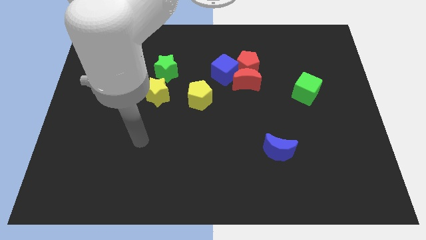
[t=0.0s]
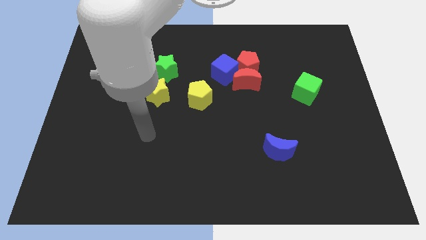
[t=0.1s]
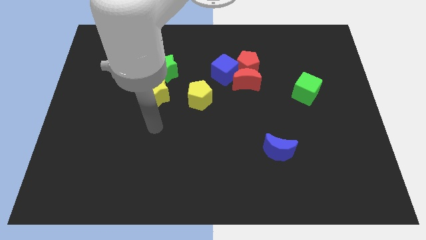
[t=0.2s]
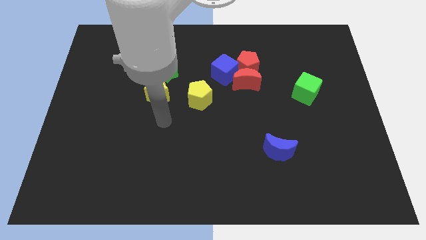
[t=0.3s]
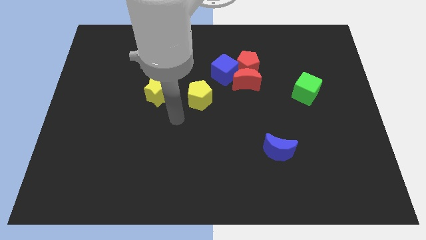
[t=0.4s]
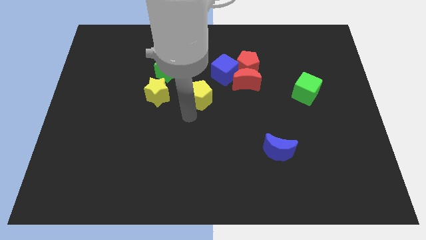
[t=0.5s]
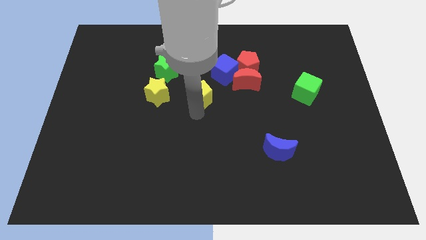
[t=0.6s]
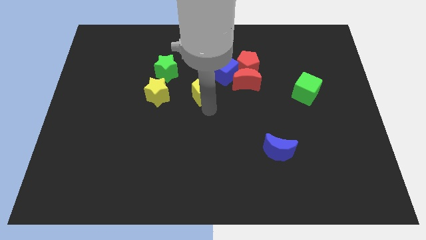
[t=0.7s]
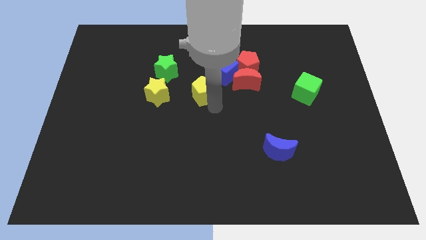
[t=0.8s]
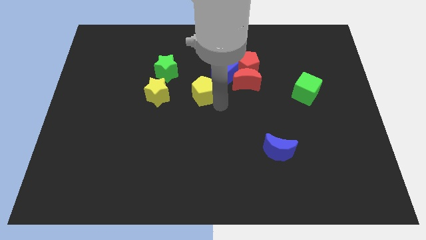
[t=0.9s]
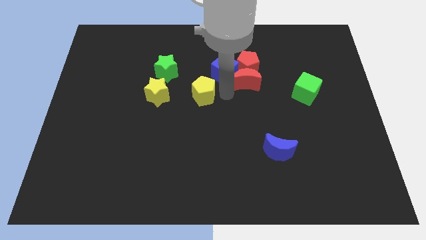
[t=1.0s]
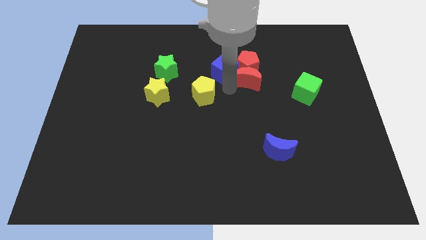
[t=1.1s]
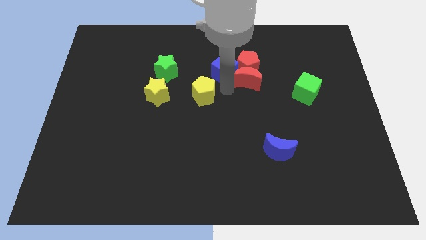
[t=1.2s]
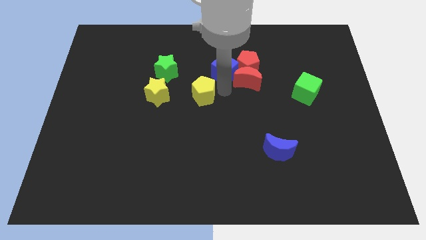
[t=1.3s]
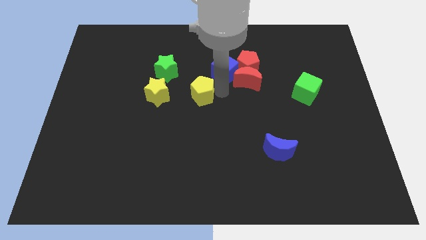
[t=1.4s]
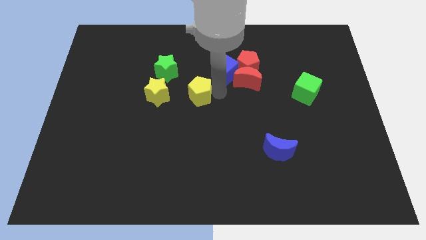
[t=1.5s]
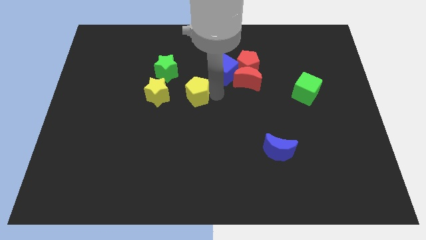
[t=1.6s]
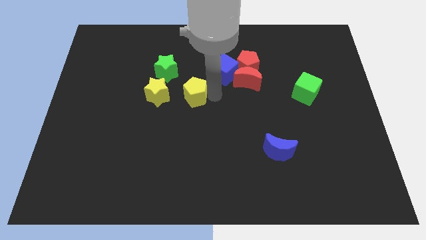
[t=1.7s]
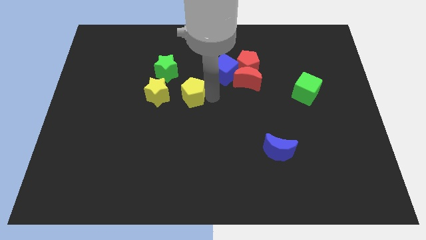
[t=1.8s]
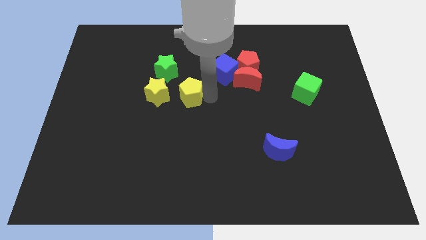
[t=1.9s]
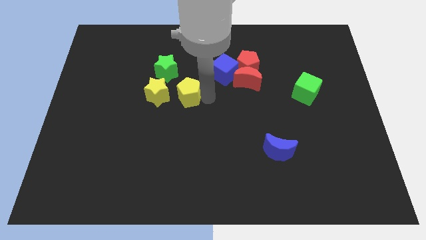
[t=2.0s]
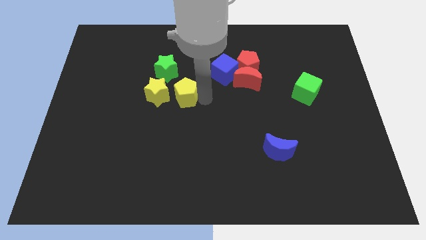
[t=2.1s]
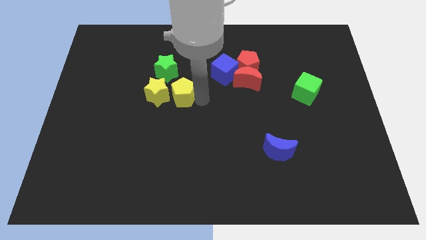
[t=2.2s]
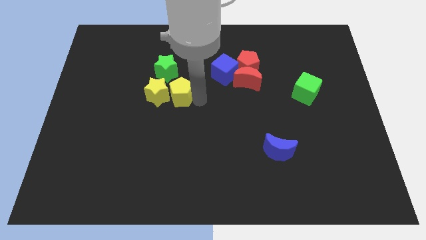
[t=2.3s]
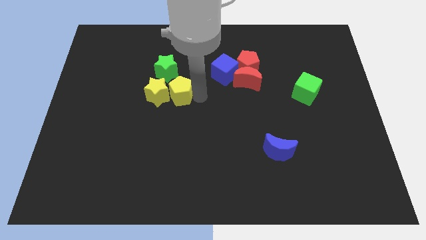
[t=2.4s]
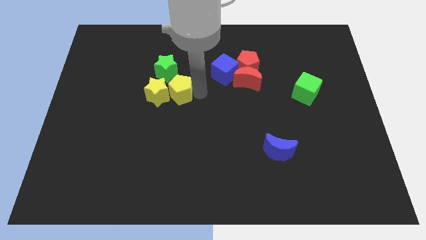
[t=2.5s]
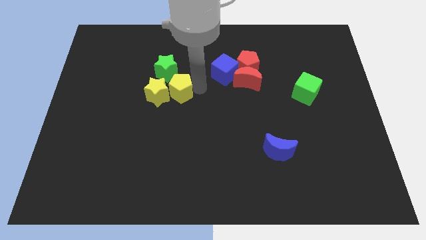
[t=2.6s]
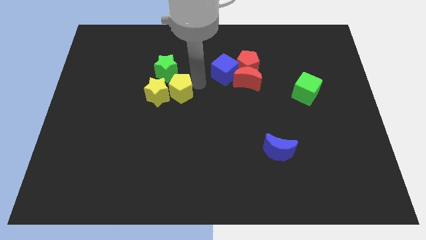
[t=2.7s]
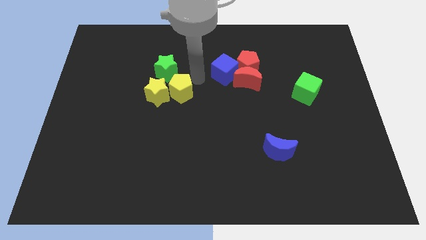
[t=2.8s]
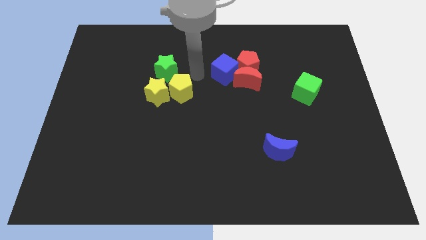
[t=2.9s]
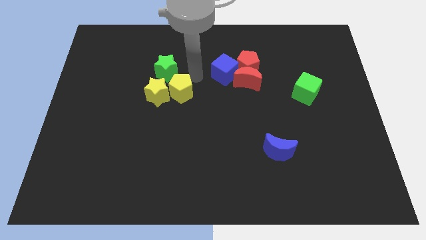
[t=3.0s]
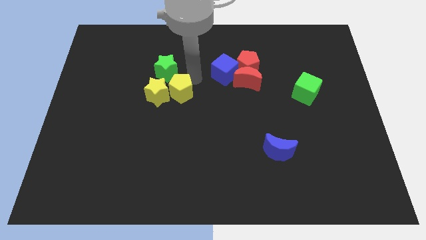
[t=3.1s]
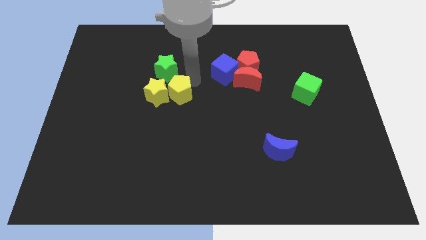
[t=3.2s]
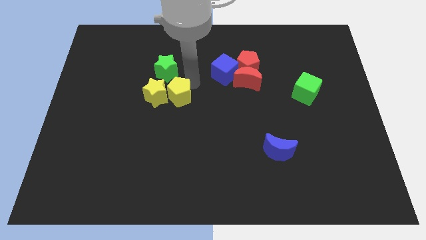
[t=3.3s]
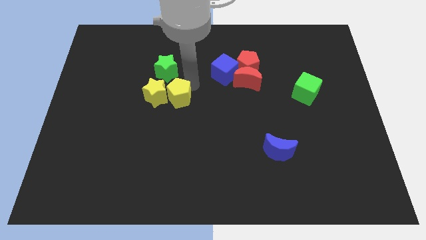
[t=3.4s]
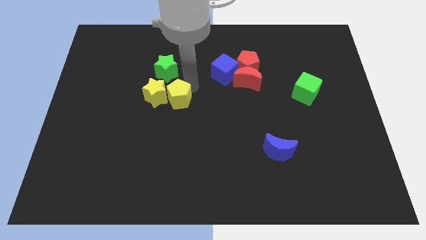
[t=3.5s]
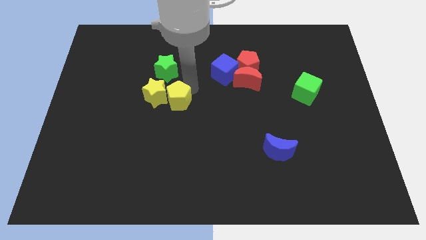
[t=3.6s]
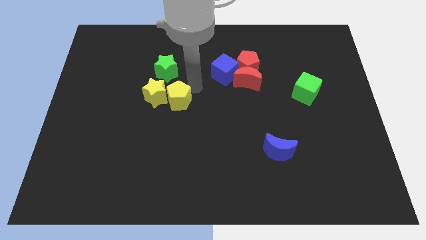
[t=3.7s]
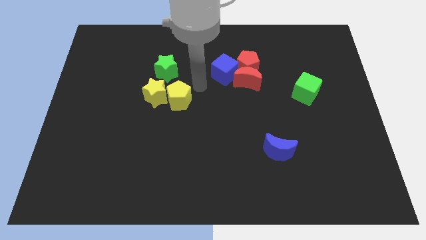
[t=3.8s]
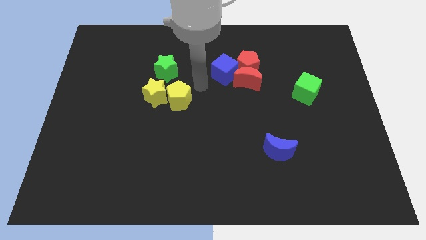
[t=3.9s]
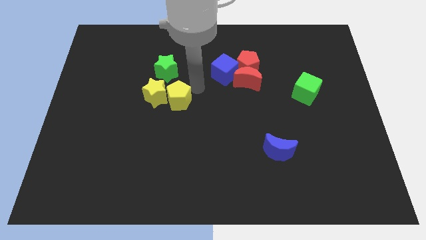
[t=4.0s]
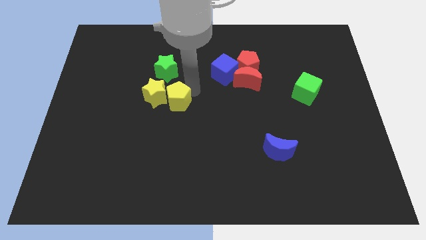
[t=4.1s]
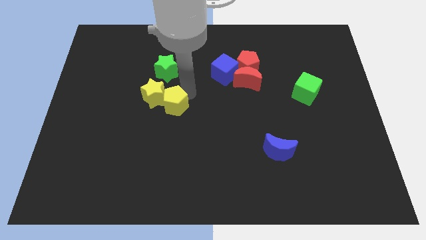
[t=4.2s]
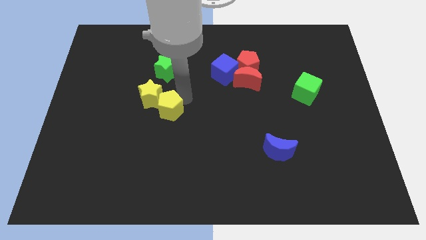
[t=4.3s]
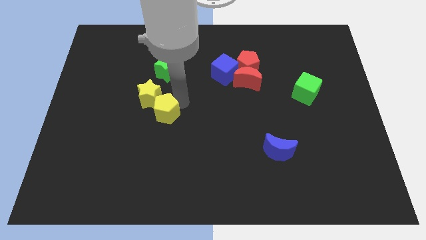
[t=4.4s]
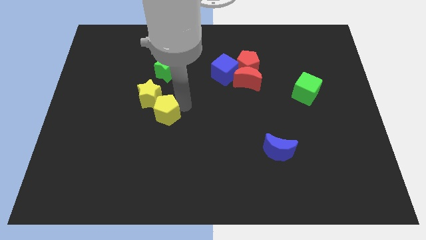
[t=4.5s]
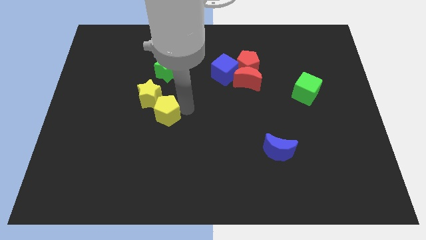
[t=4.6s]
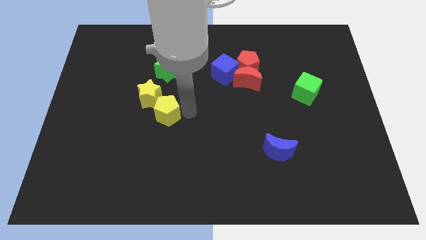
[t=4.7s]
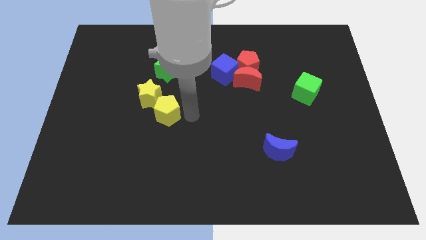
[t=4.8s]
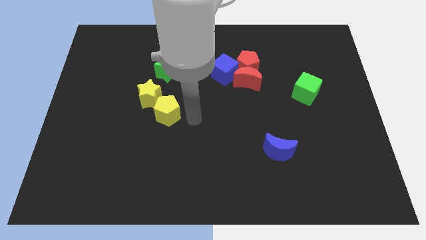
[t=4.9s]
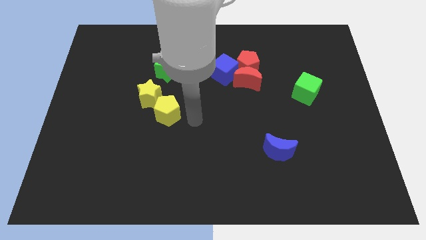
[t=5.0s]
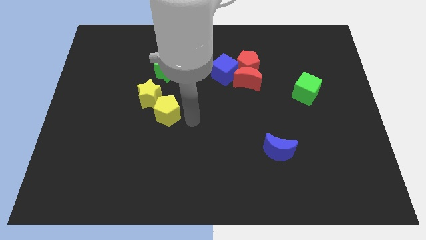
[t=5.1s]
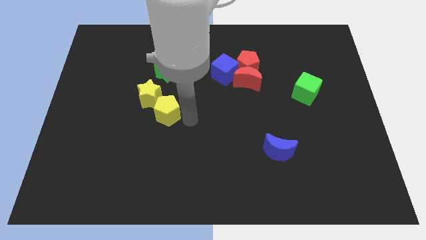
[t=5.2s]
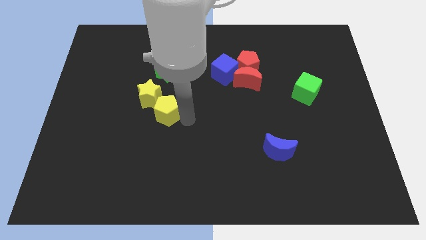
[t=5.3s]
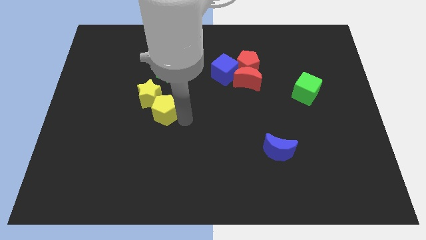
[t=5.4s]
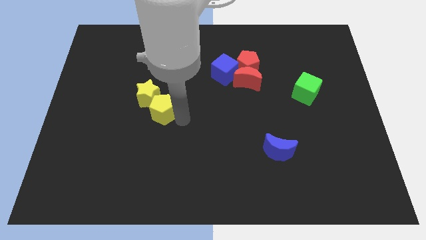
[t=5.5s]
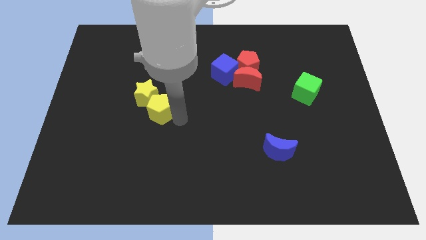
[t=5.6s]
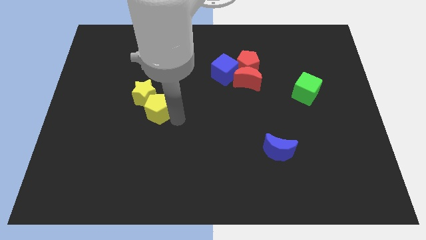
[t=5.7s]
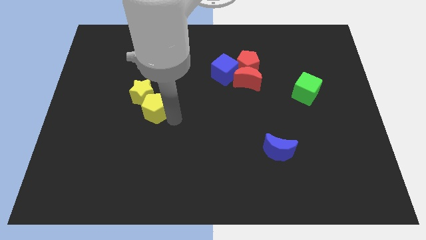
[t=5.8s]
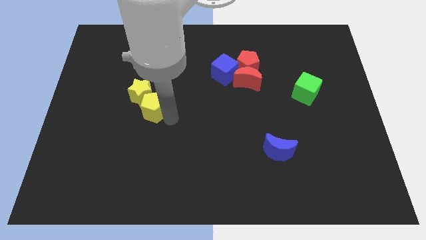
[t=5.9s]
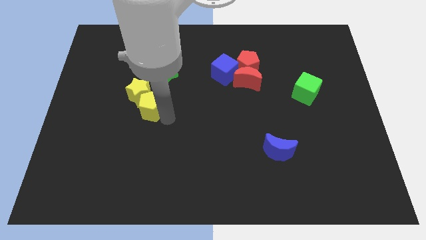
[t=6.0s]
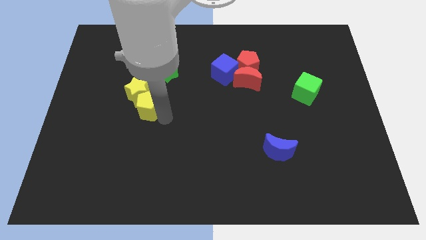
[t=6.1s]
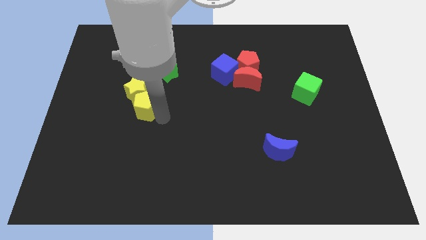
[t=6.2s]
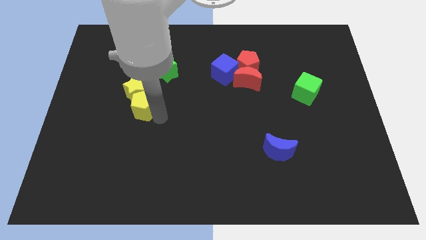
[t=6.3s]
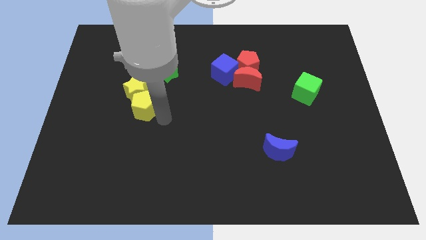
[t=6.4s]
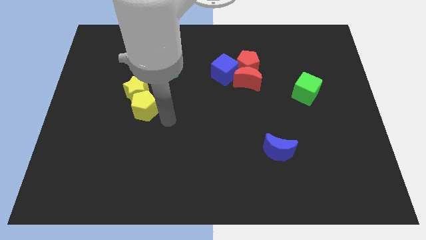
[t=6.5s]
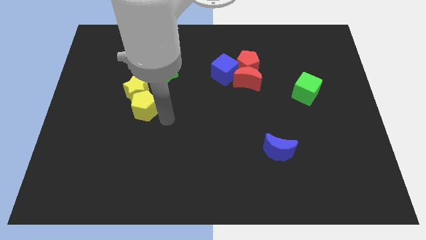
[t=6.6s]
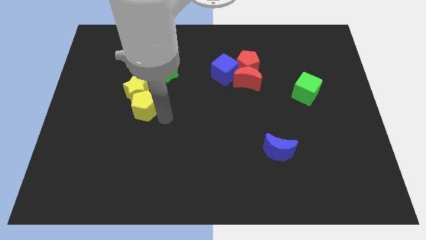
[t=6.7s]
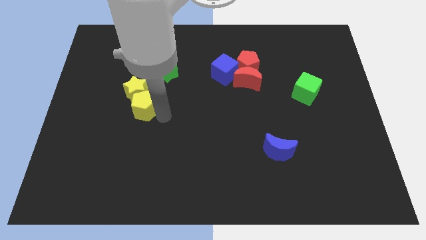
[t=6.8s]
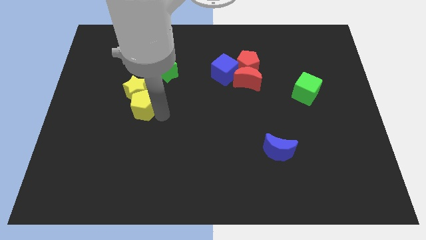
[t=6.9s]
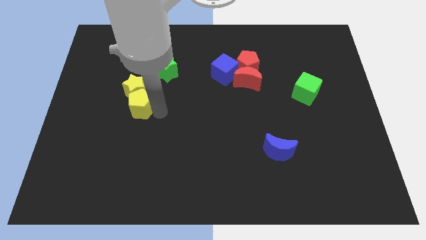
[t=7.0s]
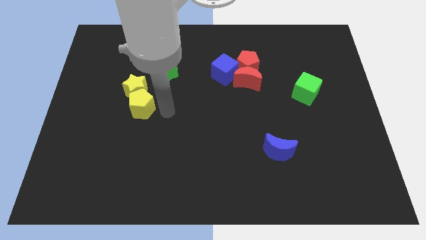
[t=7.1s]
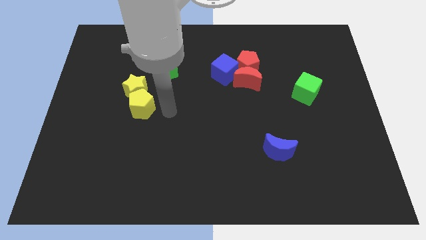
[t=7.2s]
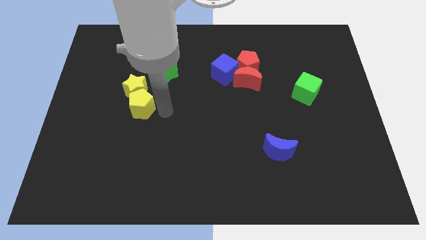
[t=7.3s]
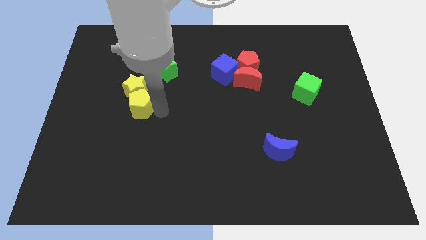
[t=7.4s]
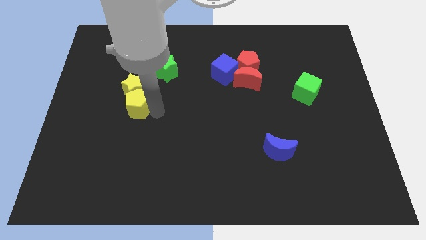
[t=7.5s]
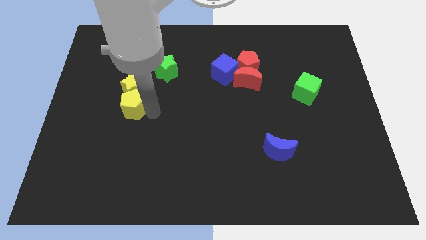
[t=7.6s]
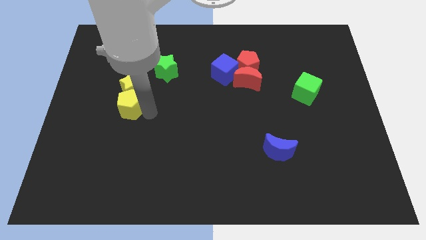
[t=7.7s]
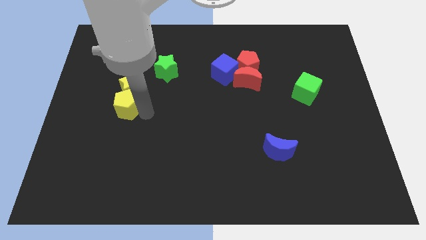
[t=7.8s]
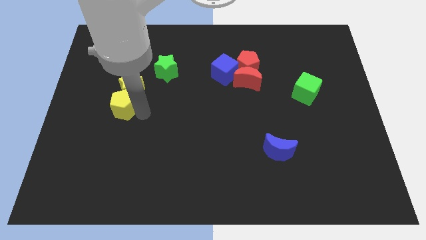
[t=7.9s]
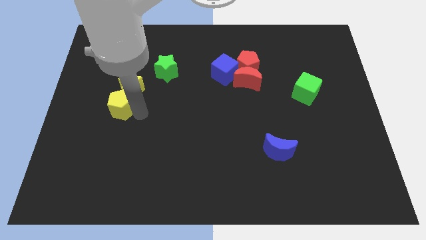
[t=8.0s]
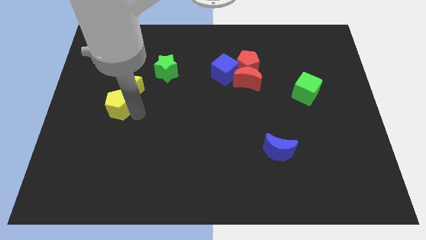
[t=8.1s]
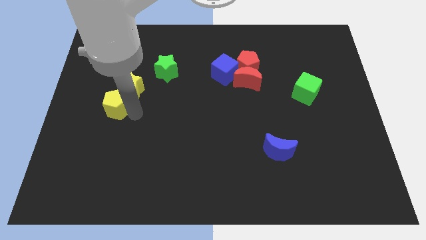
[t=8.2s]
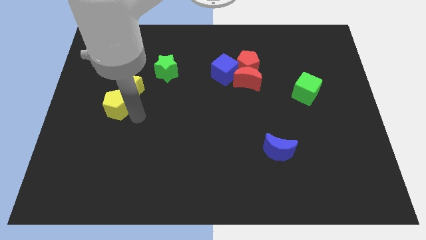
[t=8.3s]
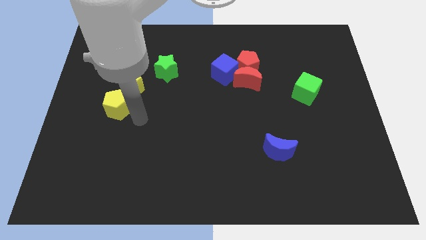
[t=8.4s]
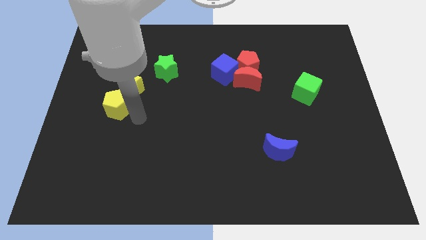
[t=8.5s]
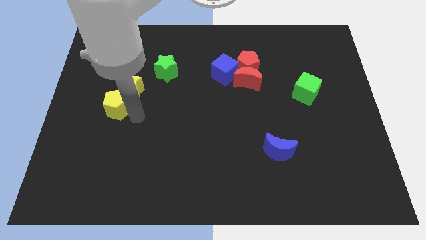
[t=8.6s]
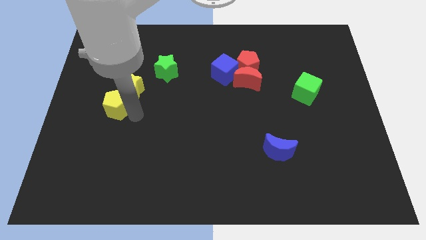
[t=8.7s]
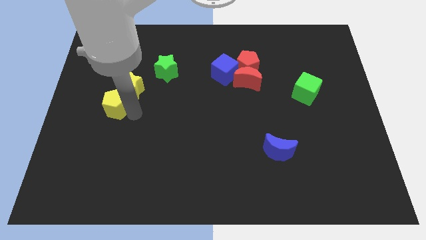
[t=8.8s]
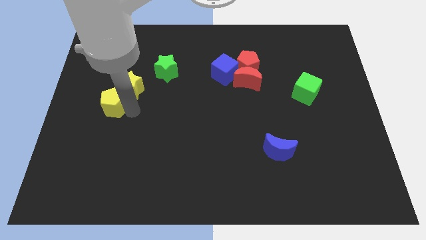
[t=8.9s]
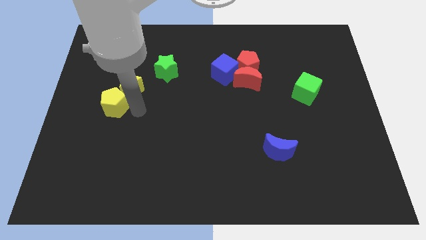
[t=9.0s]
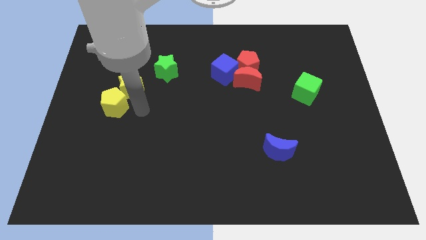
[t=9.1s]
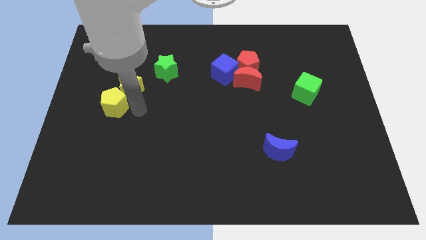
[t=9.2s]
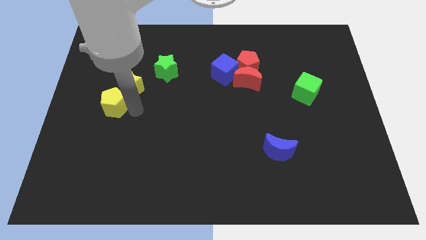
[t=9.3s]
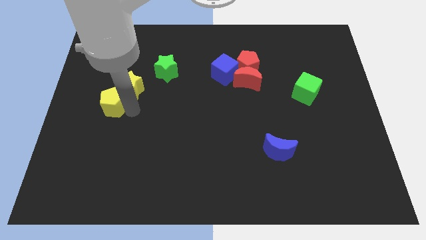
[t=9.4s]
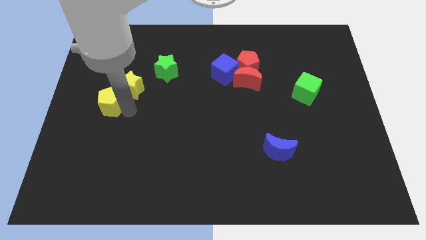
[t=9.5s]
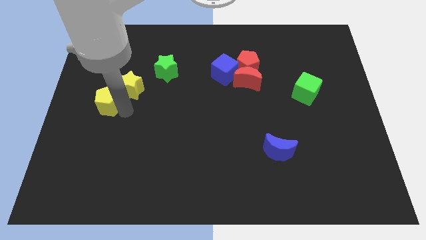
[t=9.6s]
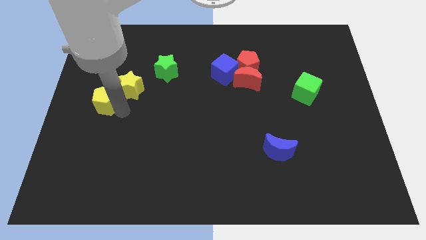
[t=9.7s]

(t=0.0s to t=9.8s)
move the yellow pentagon to the left side of the board
